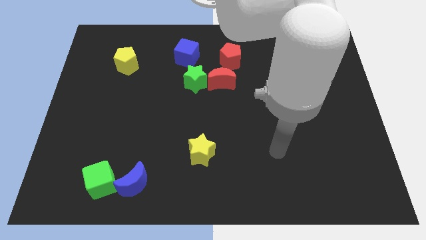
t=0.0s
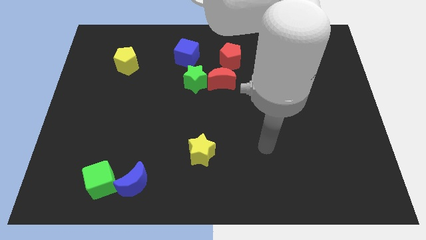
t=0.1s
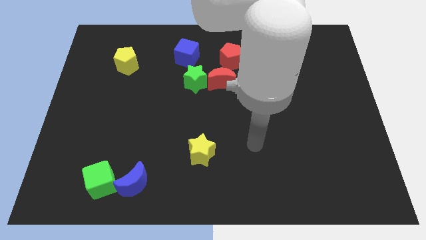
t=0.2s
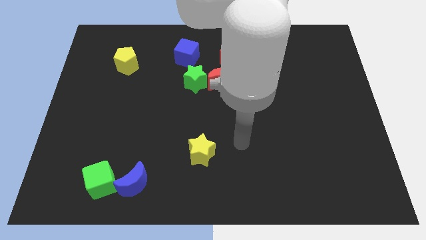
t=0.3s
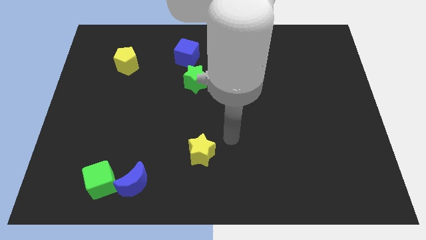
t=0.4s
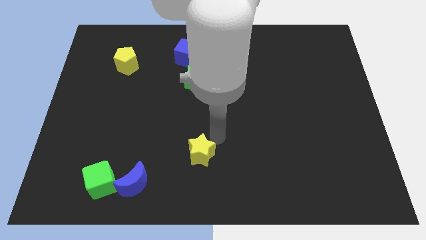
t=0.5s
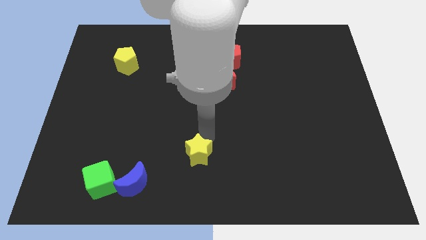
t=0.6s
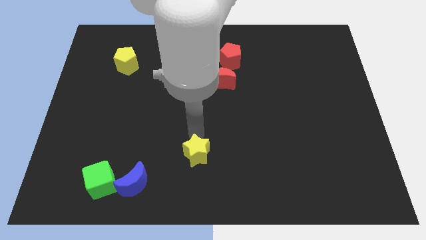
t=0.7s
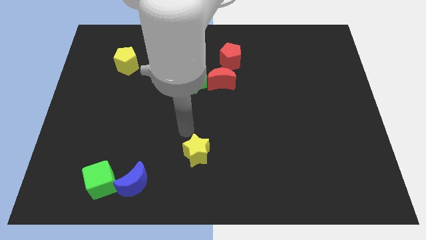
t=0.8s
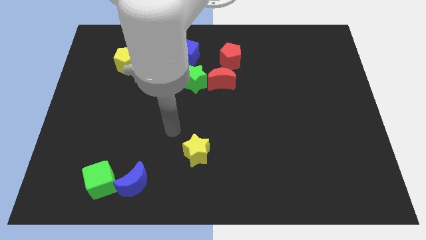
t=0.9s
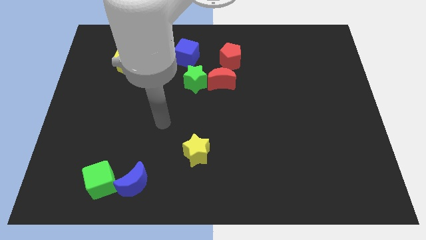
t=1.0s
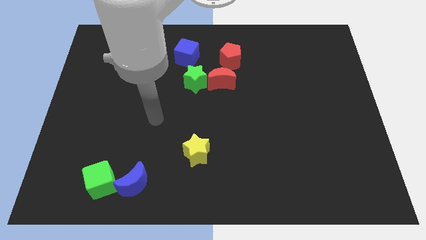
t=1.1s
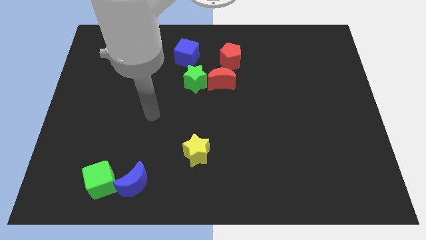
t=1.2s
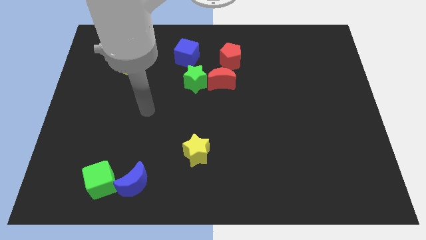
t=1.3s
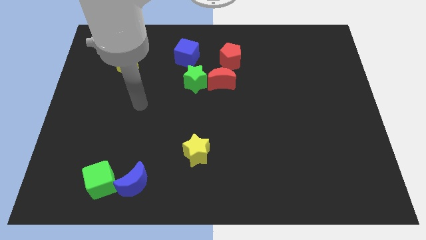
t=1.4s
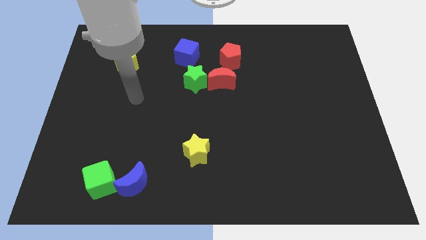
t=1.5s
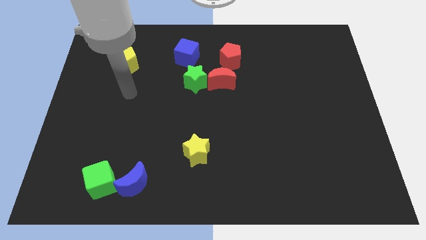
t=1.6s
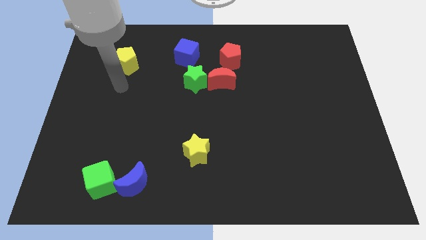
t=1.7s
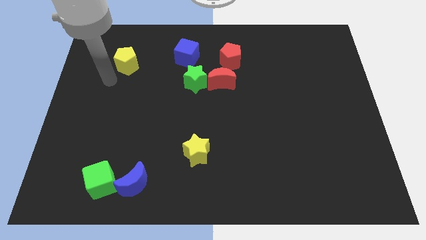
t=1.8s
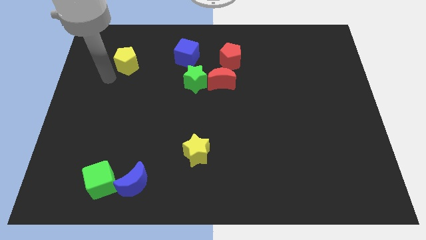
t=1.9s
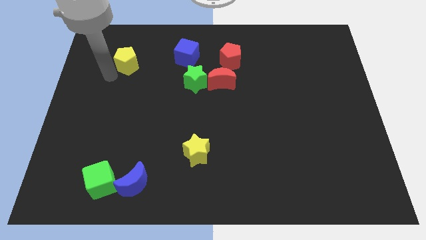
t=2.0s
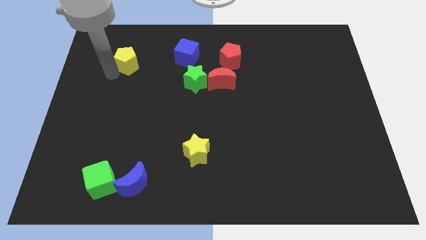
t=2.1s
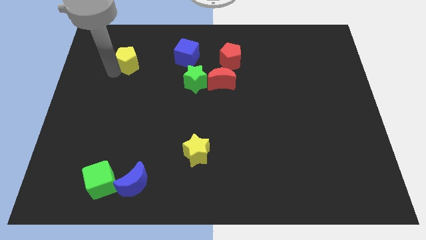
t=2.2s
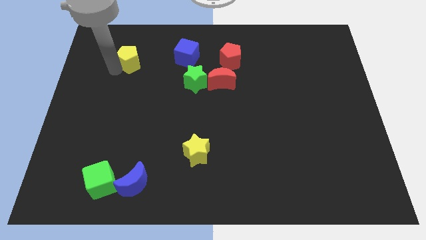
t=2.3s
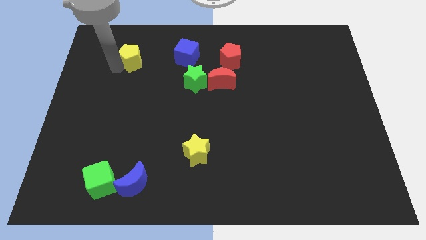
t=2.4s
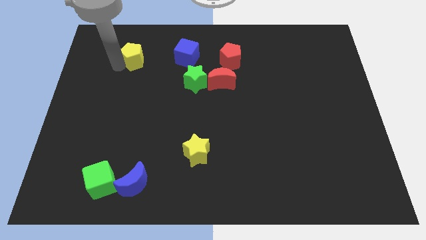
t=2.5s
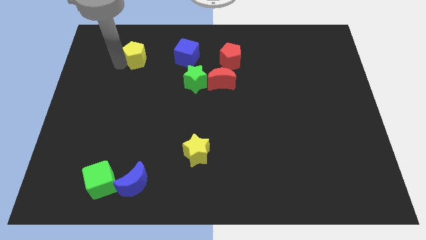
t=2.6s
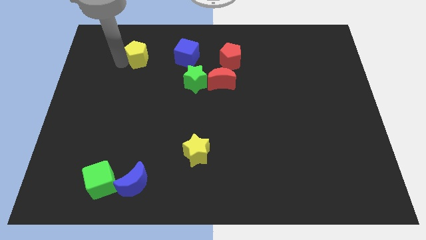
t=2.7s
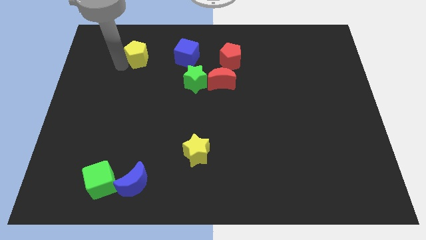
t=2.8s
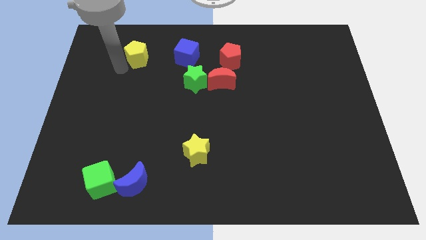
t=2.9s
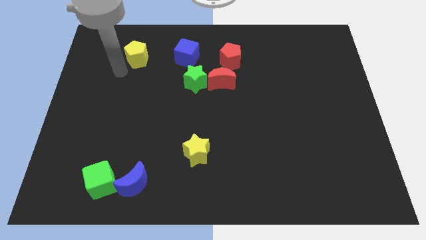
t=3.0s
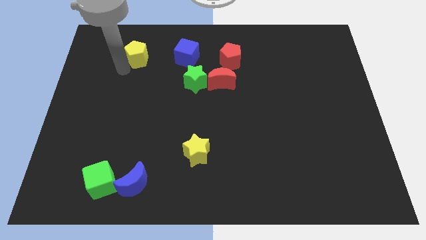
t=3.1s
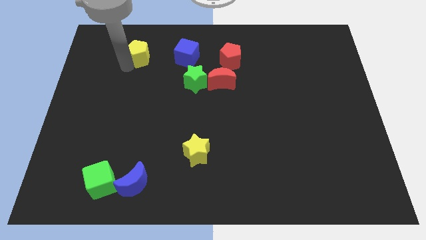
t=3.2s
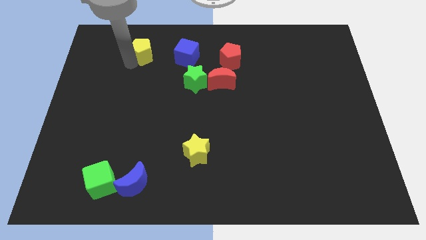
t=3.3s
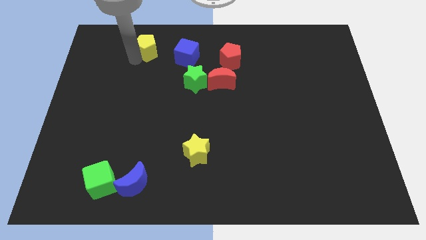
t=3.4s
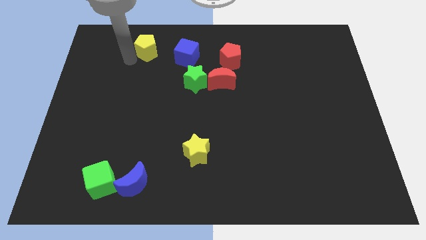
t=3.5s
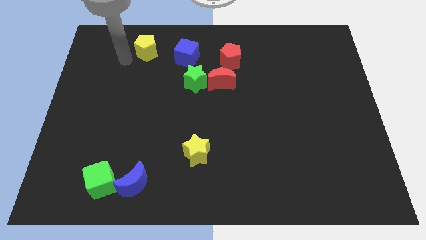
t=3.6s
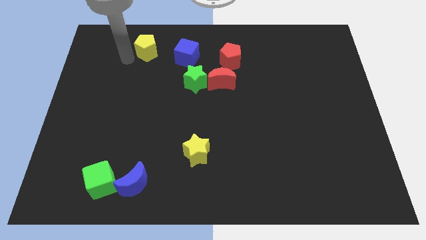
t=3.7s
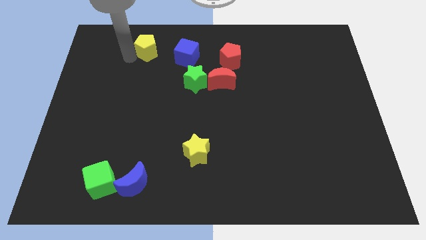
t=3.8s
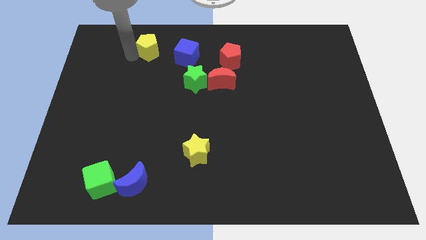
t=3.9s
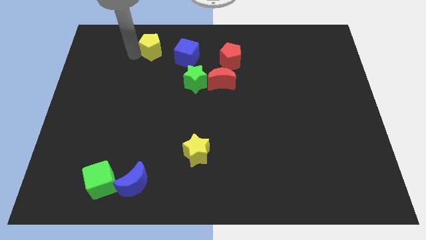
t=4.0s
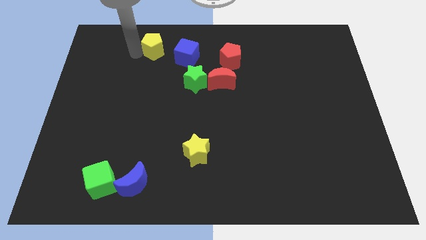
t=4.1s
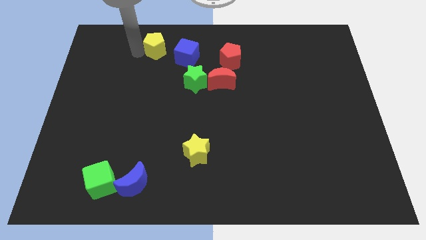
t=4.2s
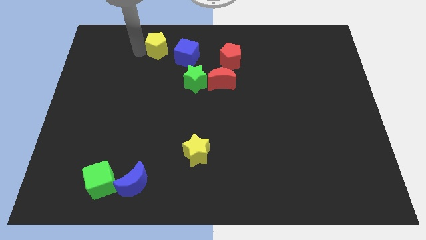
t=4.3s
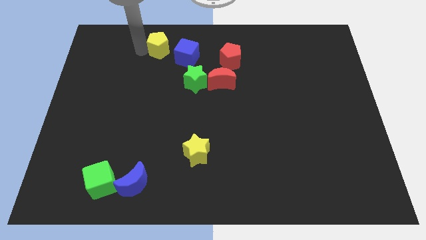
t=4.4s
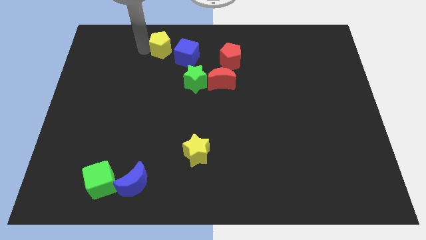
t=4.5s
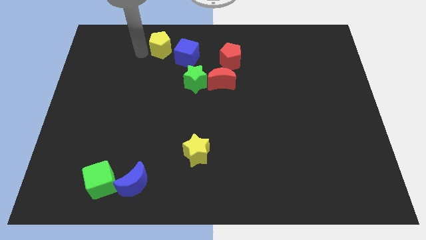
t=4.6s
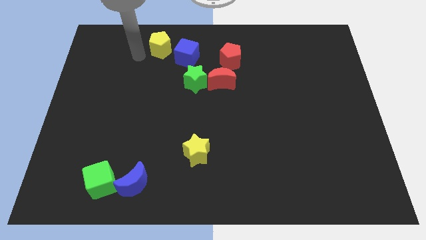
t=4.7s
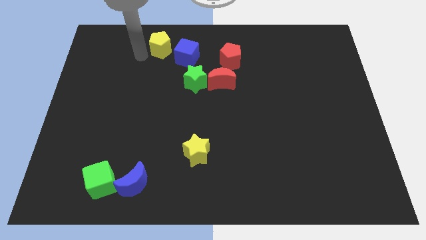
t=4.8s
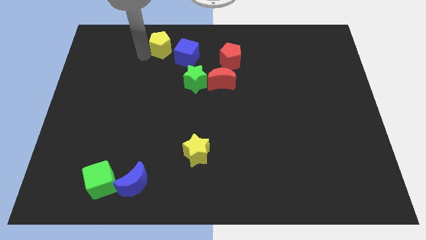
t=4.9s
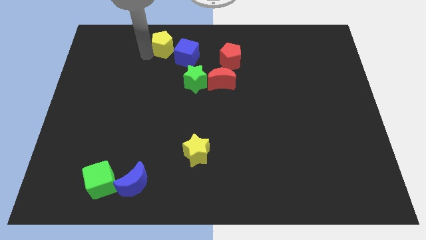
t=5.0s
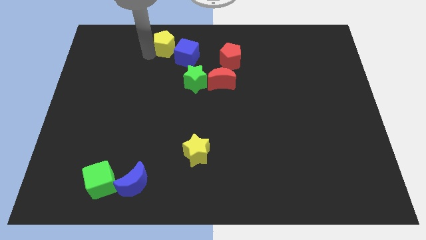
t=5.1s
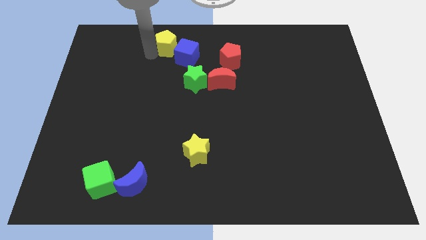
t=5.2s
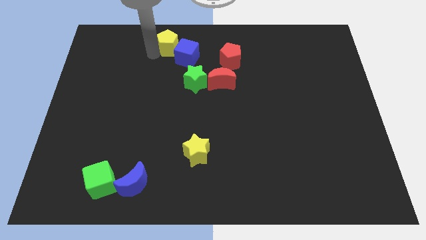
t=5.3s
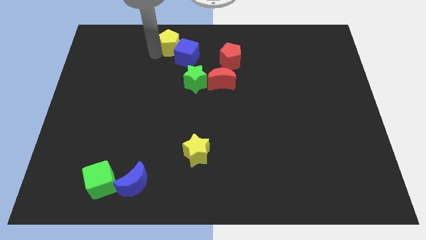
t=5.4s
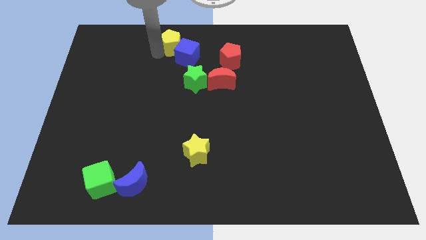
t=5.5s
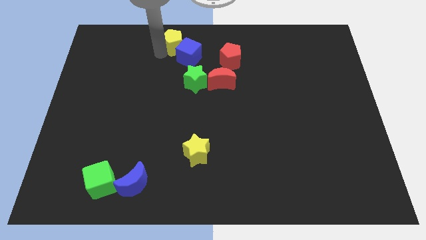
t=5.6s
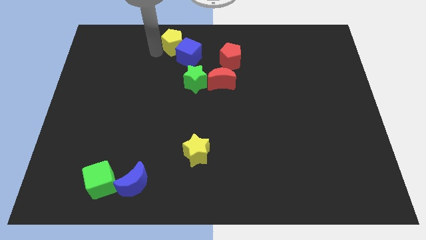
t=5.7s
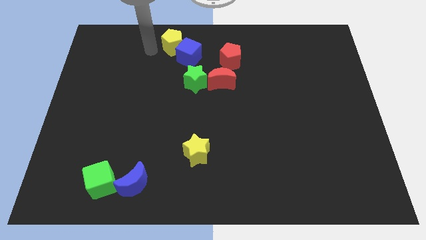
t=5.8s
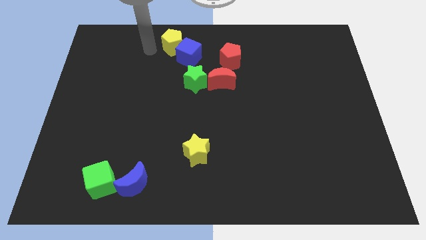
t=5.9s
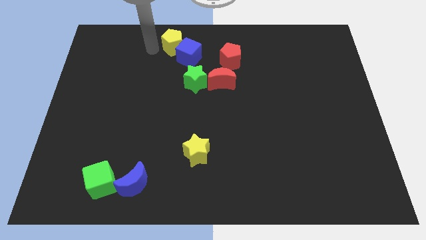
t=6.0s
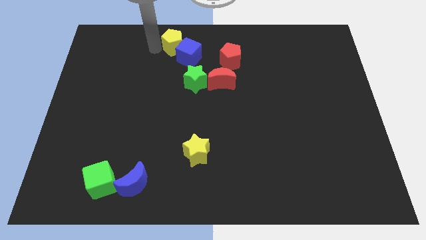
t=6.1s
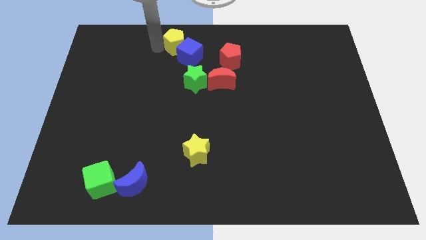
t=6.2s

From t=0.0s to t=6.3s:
put the yellow pentagon to the towards your base
